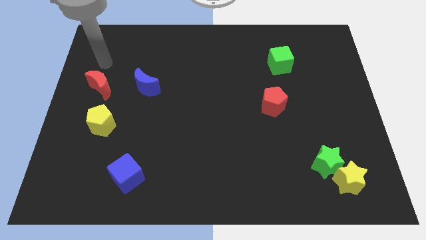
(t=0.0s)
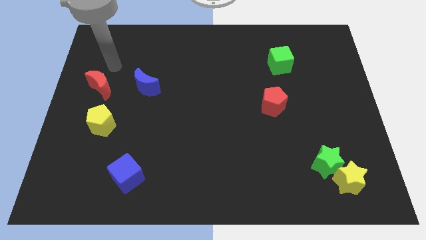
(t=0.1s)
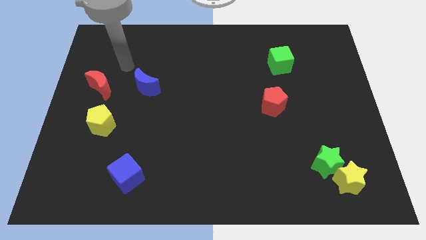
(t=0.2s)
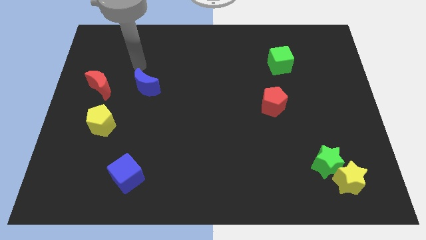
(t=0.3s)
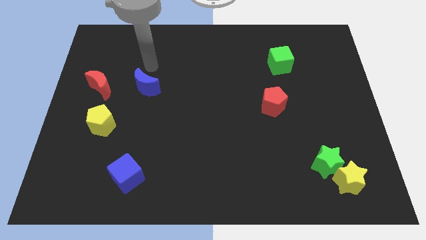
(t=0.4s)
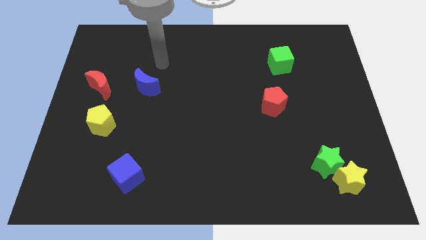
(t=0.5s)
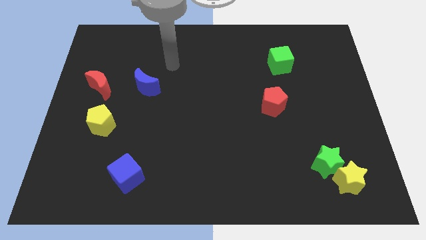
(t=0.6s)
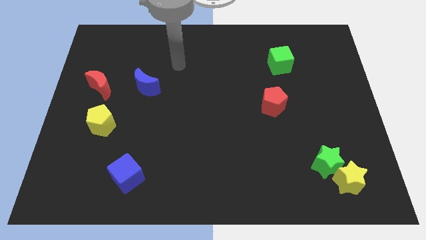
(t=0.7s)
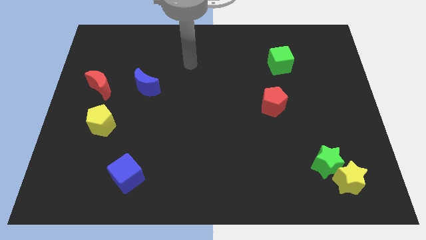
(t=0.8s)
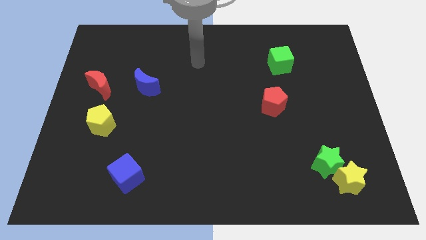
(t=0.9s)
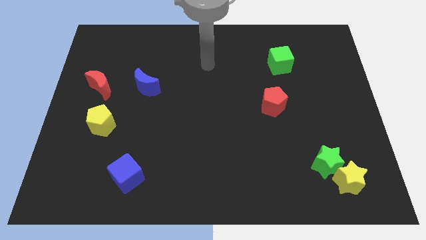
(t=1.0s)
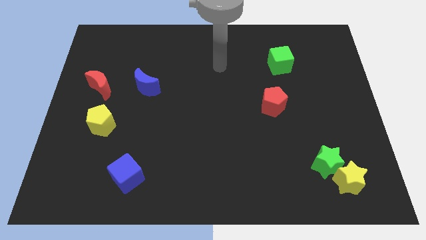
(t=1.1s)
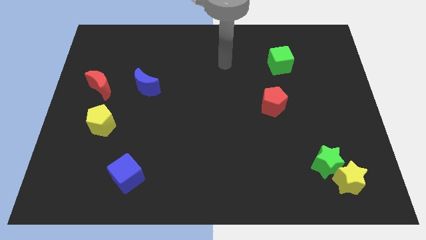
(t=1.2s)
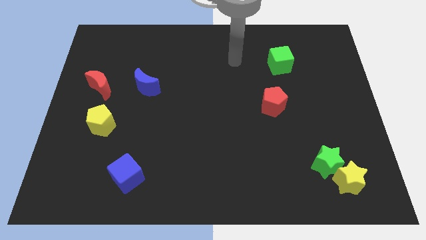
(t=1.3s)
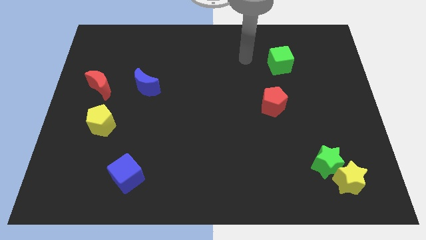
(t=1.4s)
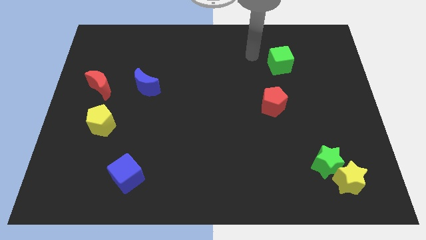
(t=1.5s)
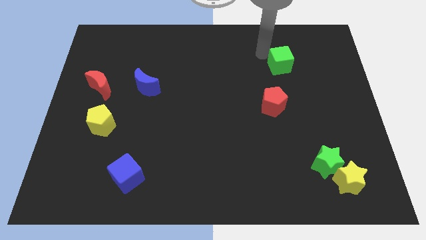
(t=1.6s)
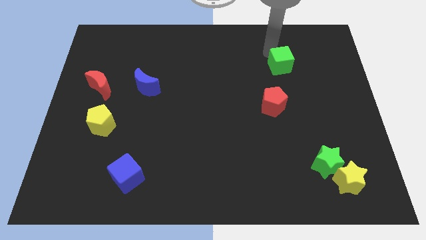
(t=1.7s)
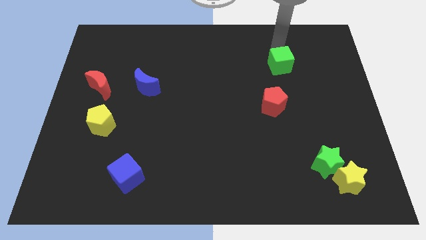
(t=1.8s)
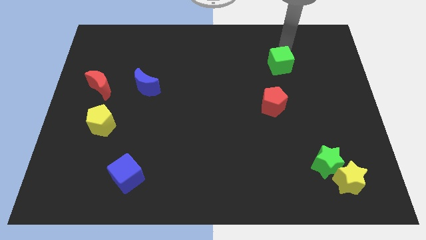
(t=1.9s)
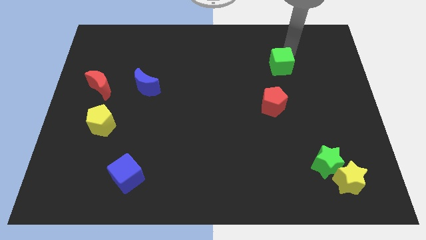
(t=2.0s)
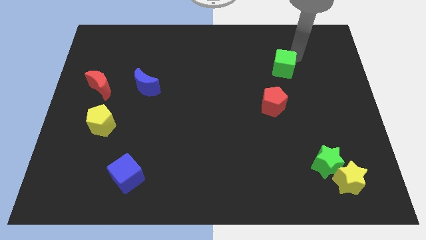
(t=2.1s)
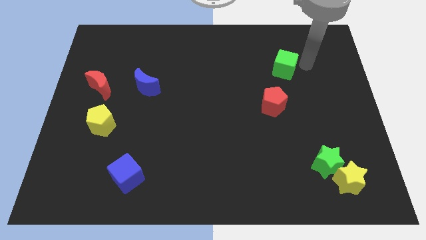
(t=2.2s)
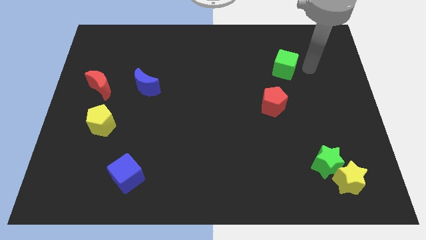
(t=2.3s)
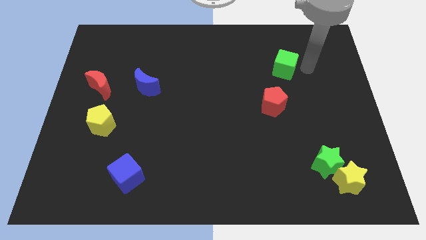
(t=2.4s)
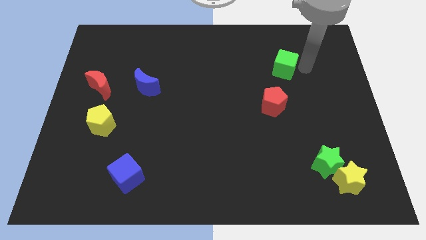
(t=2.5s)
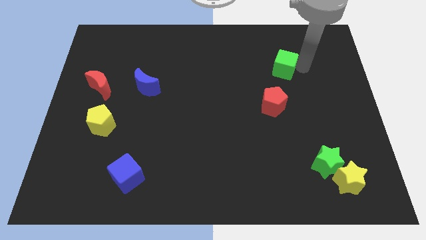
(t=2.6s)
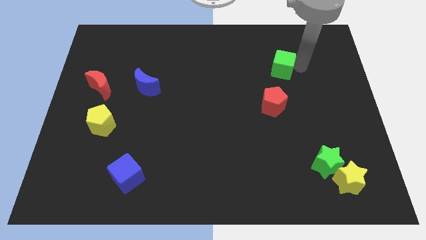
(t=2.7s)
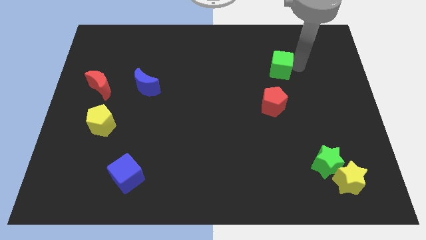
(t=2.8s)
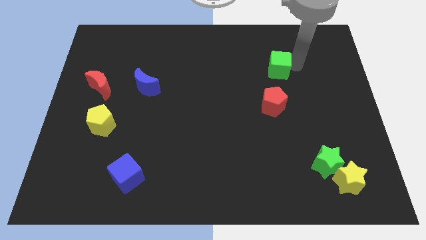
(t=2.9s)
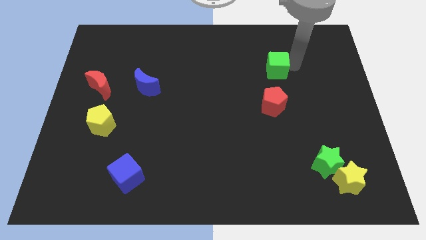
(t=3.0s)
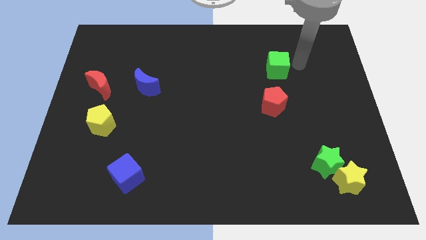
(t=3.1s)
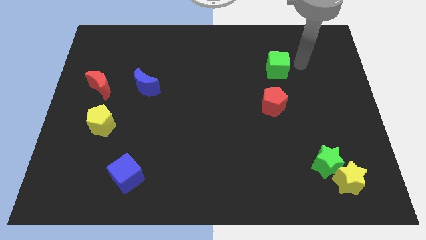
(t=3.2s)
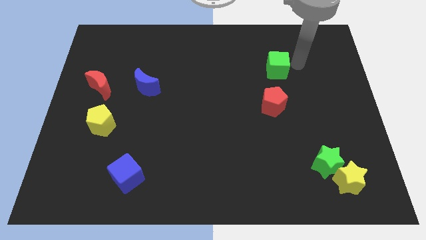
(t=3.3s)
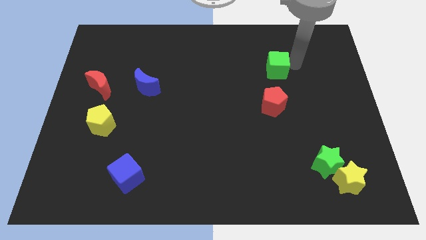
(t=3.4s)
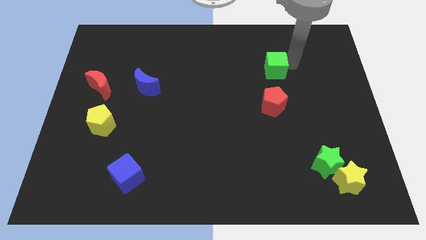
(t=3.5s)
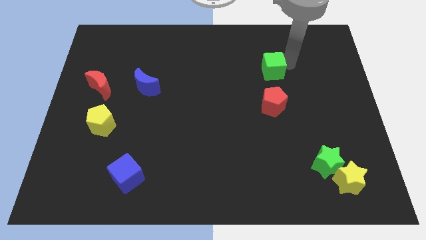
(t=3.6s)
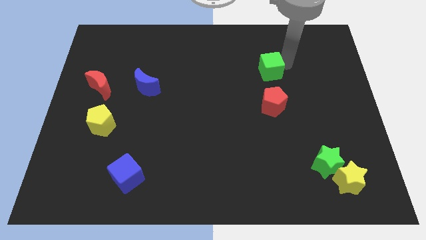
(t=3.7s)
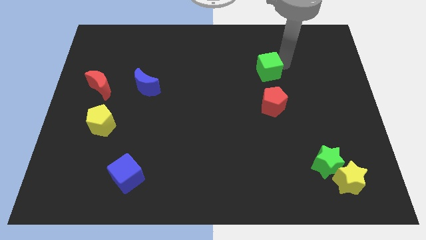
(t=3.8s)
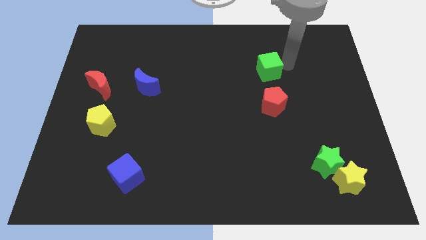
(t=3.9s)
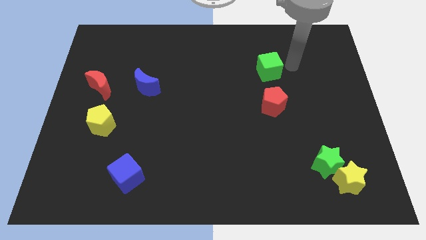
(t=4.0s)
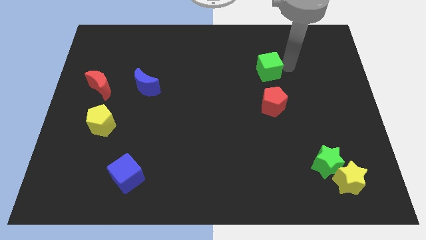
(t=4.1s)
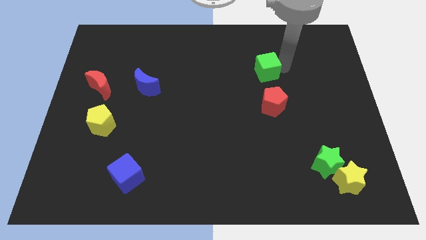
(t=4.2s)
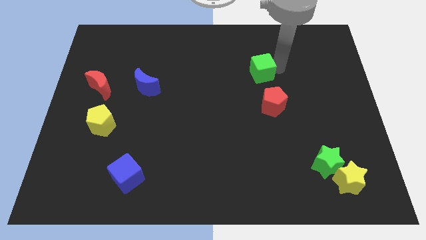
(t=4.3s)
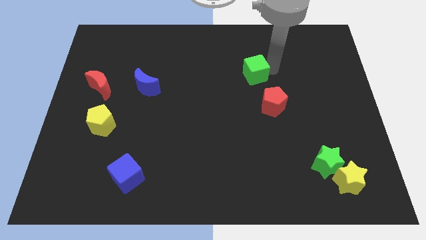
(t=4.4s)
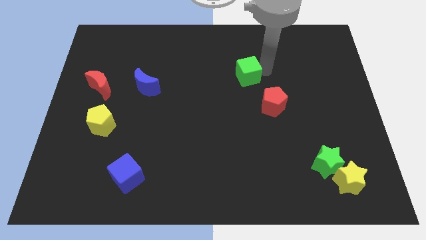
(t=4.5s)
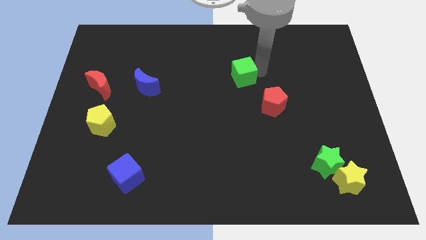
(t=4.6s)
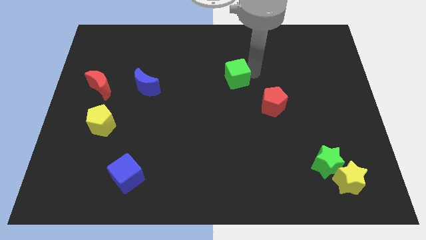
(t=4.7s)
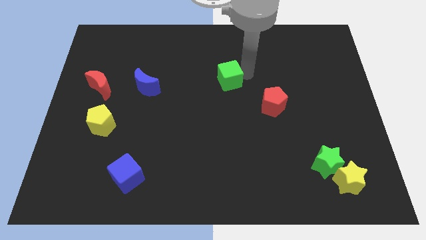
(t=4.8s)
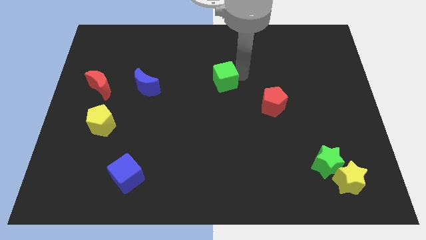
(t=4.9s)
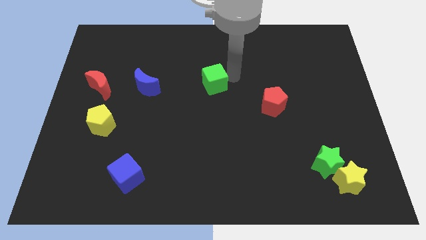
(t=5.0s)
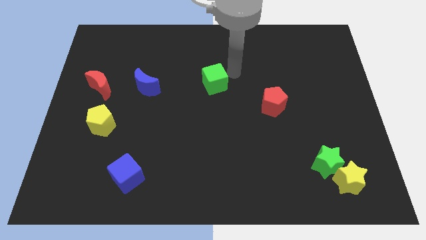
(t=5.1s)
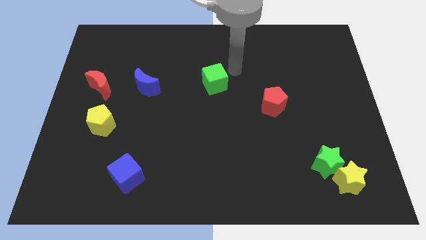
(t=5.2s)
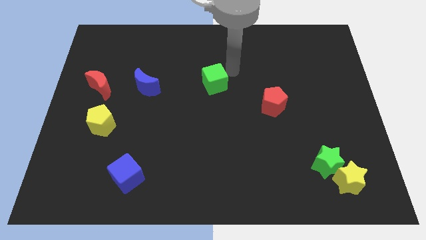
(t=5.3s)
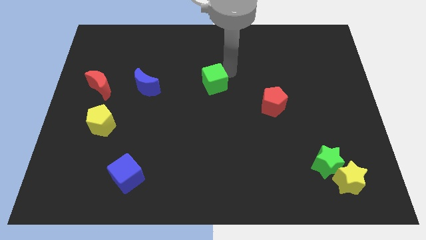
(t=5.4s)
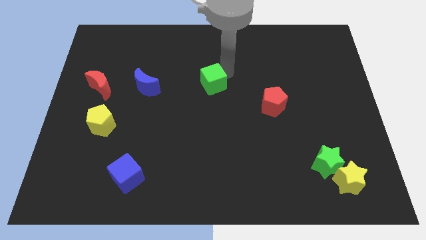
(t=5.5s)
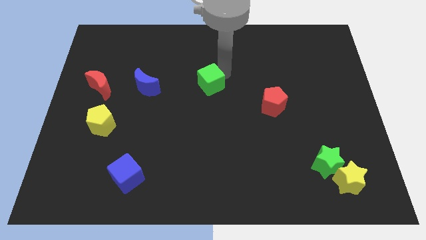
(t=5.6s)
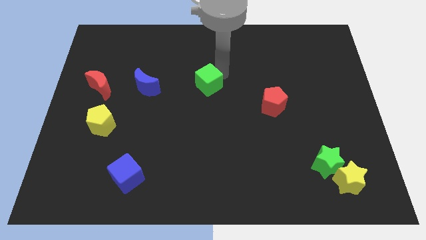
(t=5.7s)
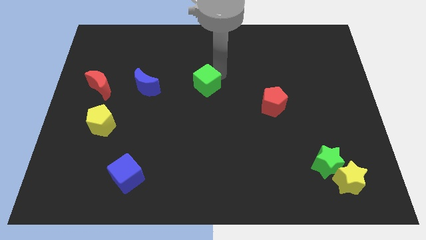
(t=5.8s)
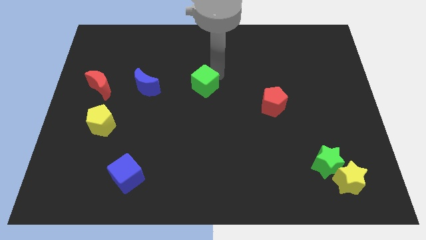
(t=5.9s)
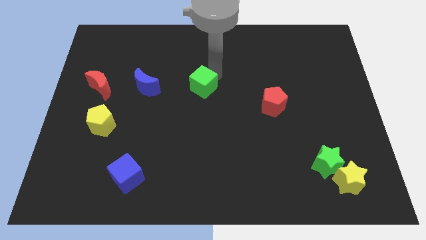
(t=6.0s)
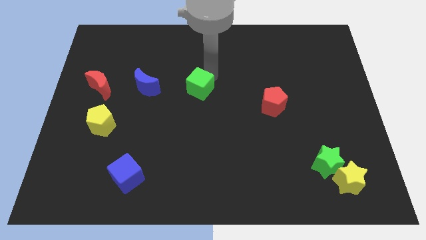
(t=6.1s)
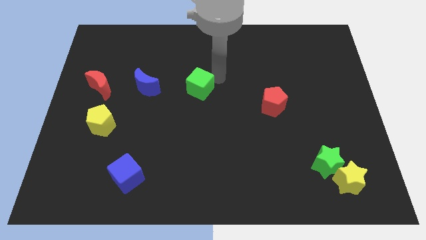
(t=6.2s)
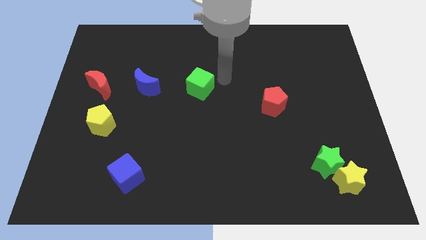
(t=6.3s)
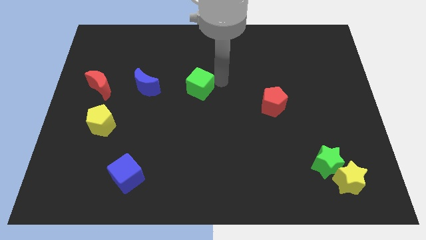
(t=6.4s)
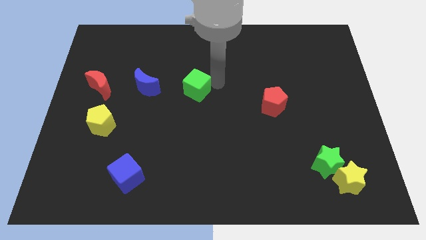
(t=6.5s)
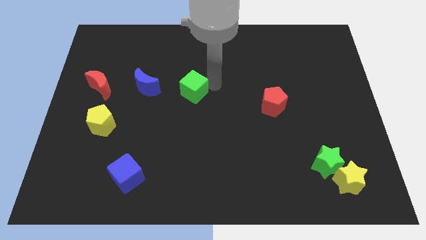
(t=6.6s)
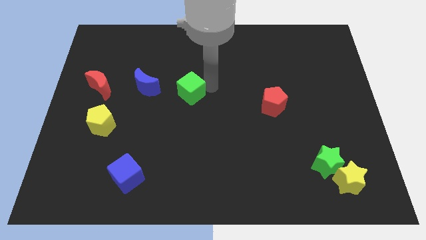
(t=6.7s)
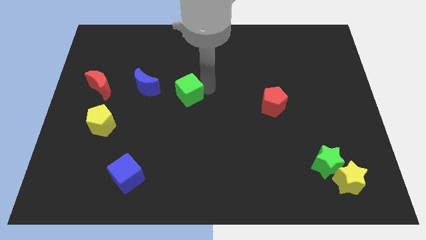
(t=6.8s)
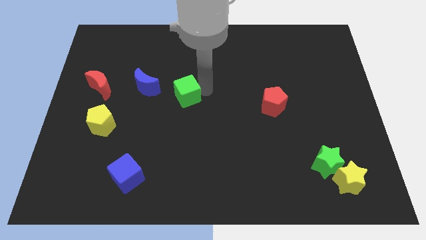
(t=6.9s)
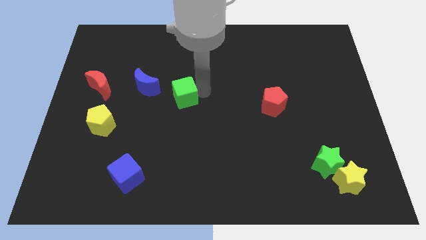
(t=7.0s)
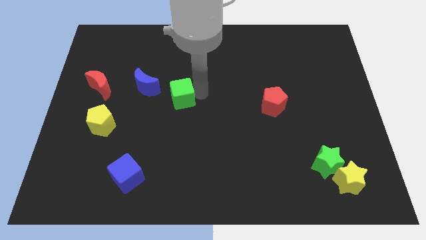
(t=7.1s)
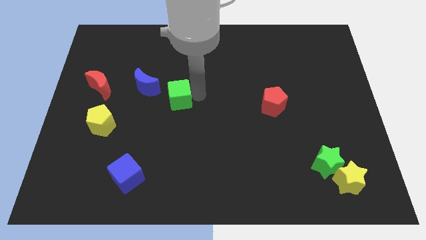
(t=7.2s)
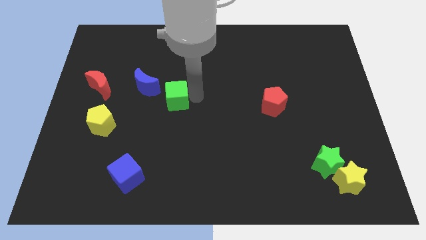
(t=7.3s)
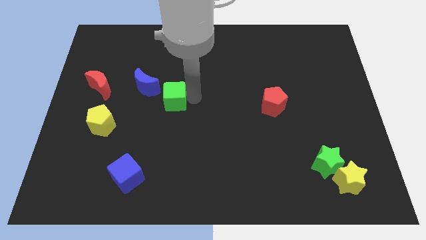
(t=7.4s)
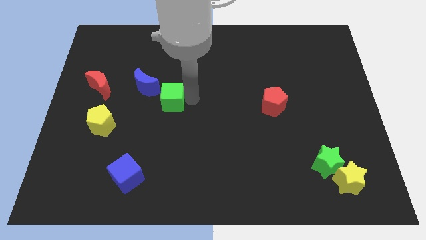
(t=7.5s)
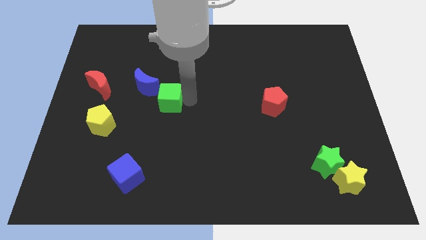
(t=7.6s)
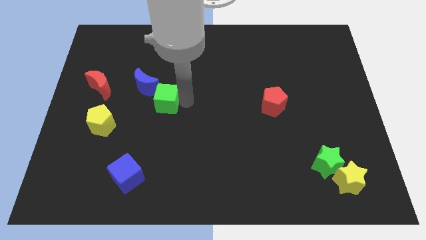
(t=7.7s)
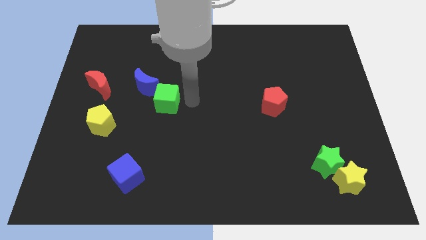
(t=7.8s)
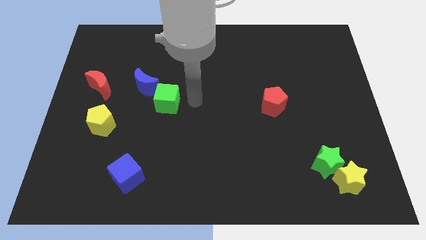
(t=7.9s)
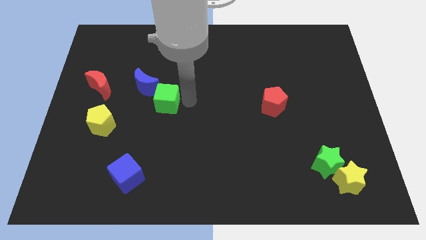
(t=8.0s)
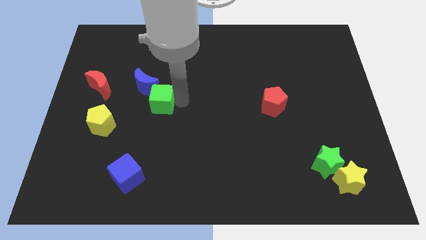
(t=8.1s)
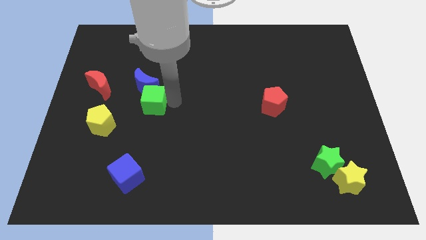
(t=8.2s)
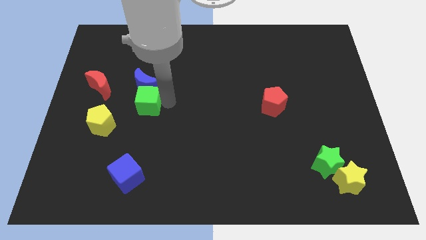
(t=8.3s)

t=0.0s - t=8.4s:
put the green cube to the bottom left of the blue moon
